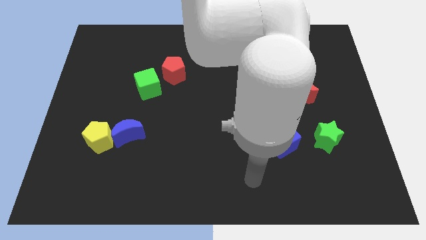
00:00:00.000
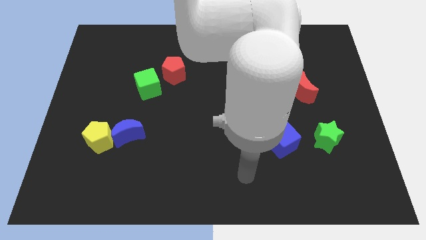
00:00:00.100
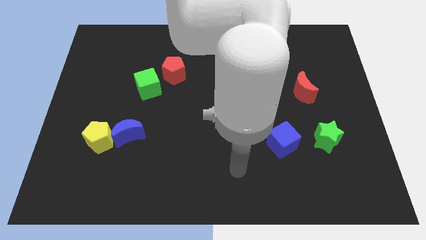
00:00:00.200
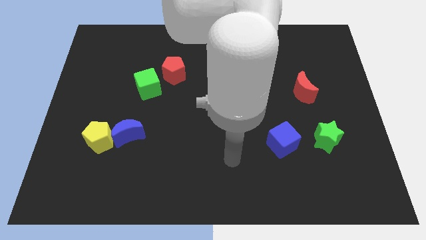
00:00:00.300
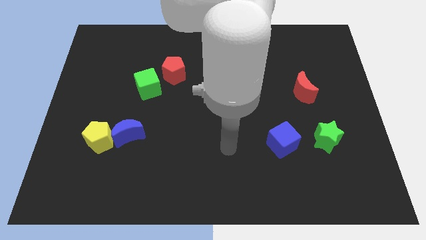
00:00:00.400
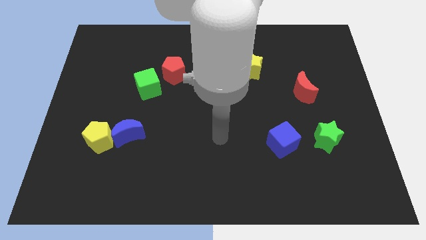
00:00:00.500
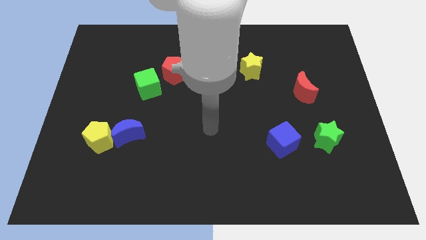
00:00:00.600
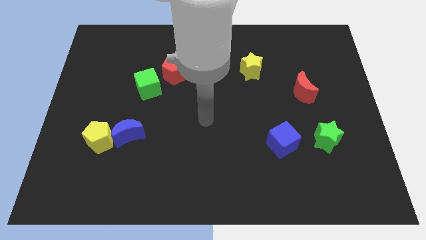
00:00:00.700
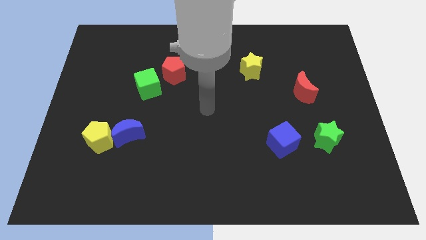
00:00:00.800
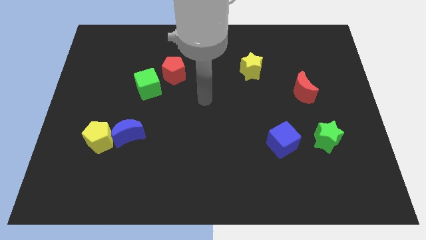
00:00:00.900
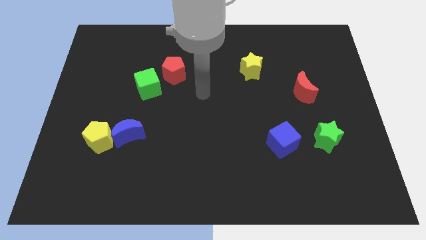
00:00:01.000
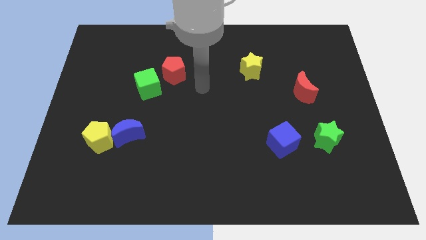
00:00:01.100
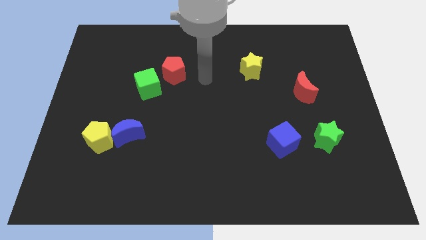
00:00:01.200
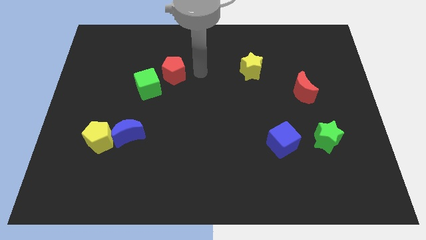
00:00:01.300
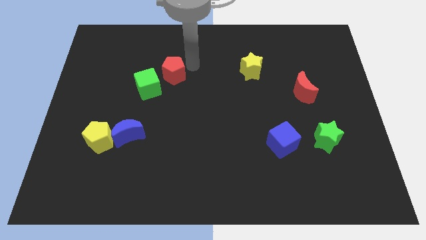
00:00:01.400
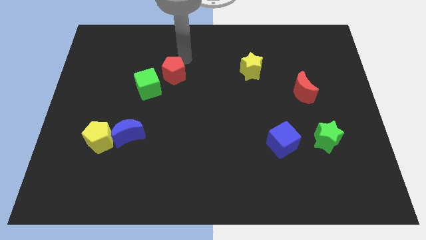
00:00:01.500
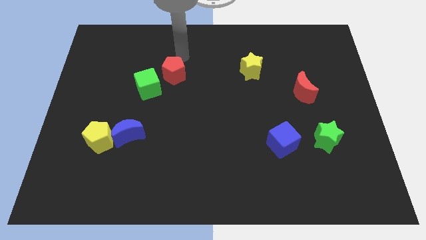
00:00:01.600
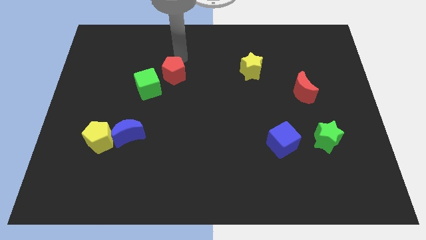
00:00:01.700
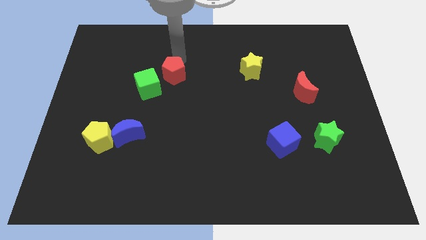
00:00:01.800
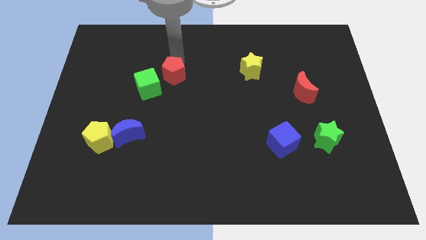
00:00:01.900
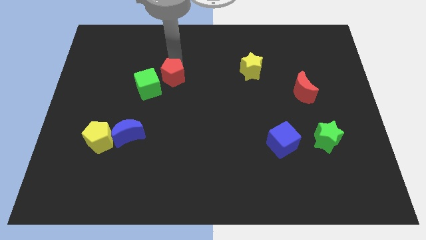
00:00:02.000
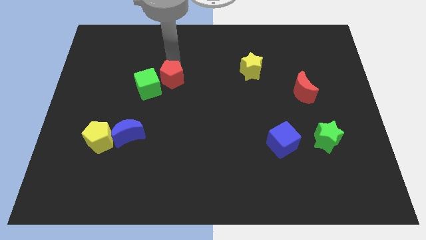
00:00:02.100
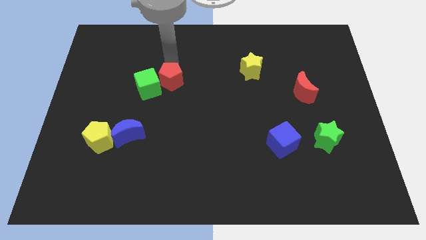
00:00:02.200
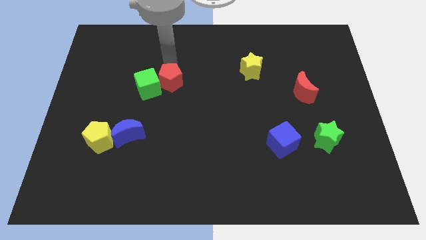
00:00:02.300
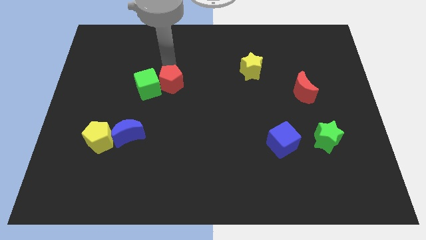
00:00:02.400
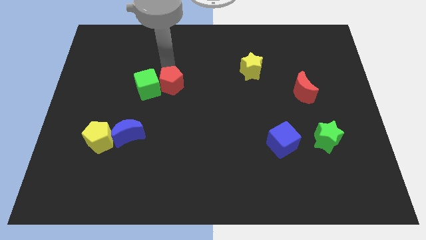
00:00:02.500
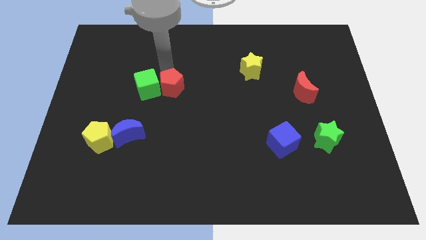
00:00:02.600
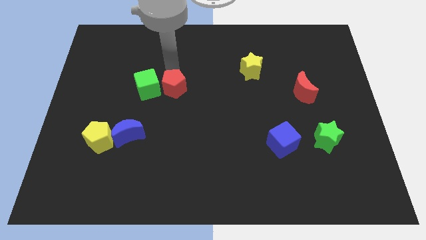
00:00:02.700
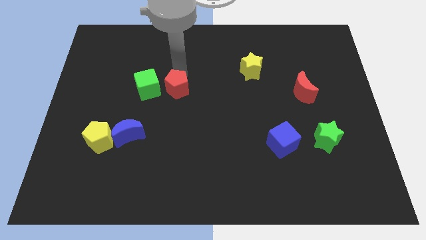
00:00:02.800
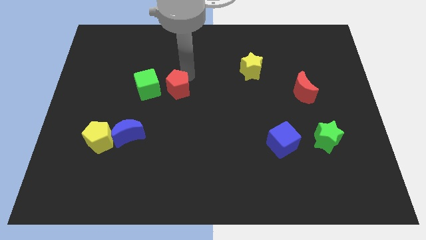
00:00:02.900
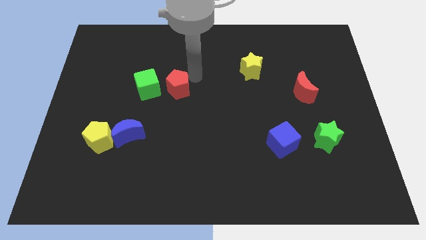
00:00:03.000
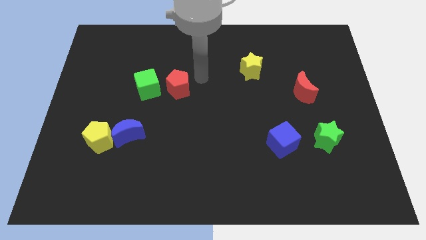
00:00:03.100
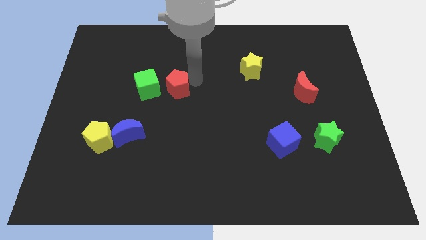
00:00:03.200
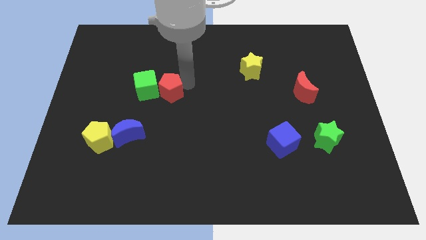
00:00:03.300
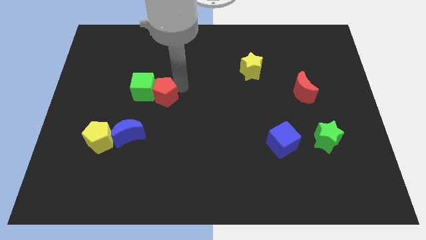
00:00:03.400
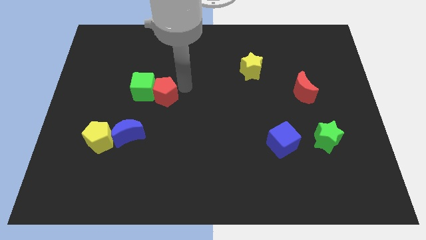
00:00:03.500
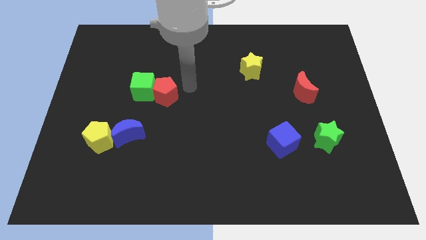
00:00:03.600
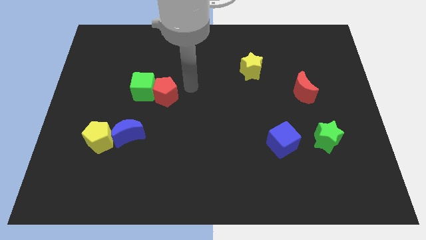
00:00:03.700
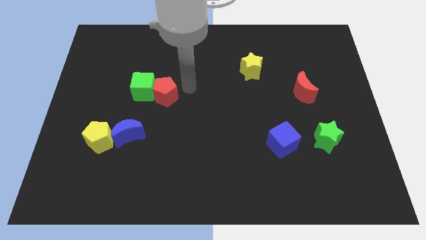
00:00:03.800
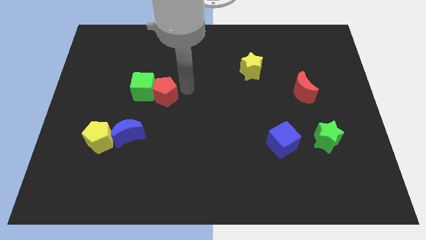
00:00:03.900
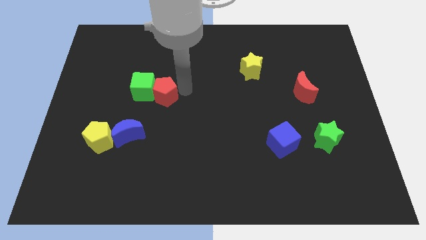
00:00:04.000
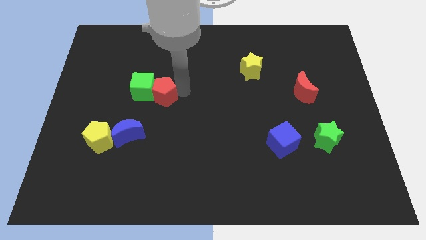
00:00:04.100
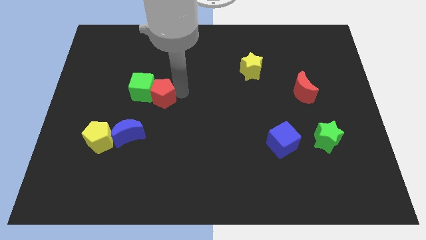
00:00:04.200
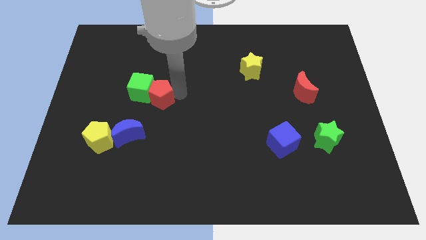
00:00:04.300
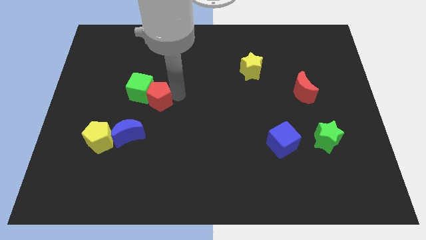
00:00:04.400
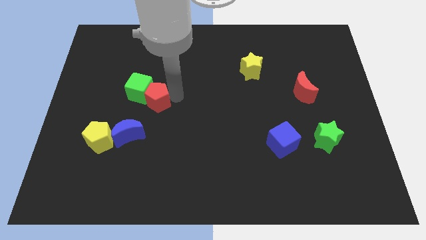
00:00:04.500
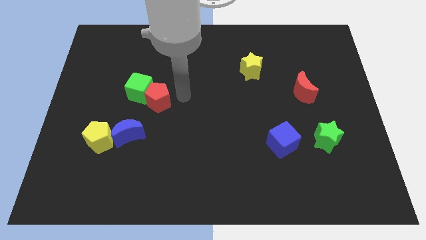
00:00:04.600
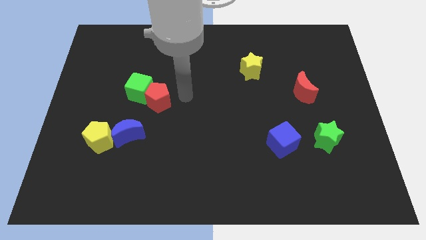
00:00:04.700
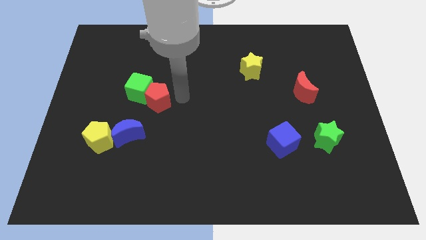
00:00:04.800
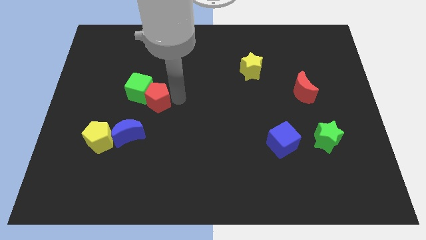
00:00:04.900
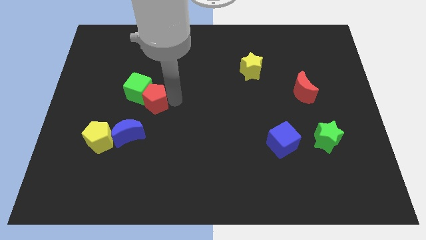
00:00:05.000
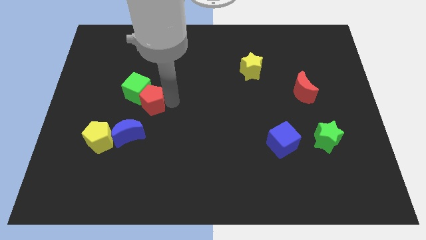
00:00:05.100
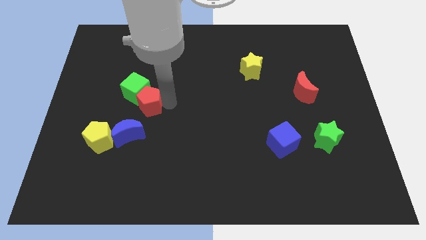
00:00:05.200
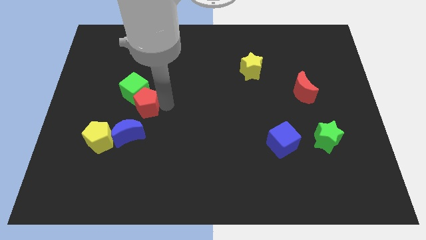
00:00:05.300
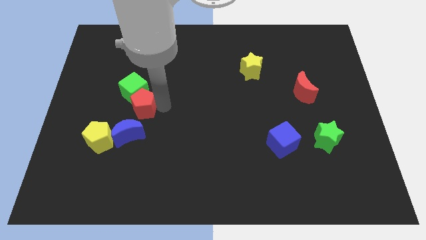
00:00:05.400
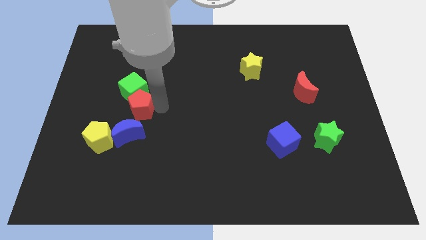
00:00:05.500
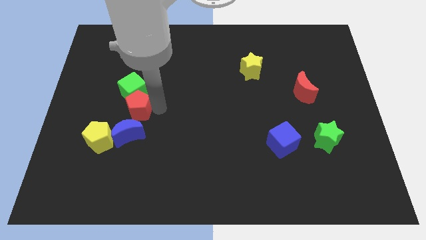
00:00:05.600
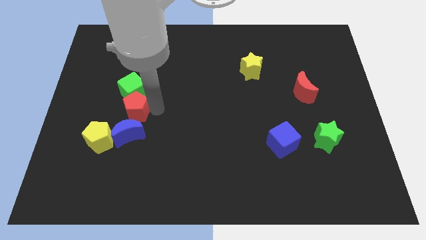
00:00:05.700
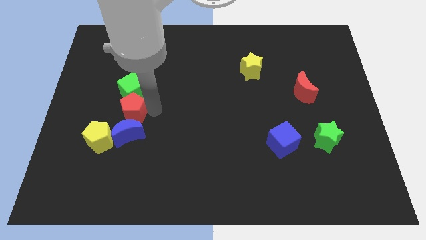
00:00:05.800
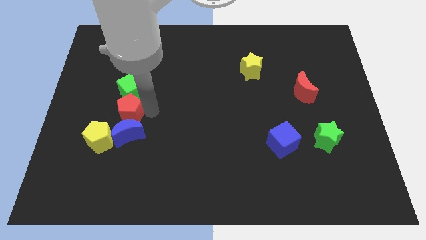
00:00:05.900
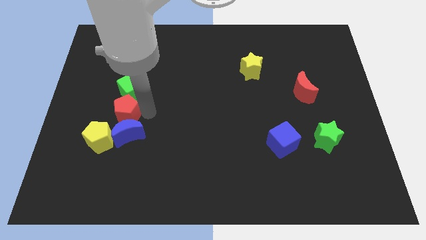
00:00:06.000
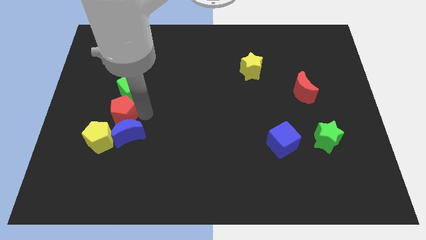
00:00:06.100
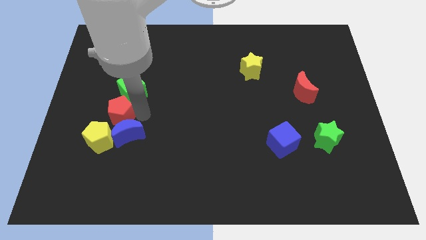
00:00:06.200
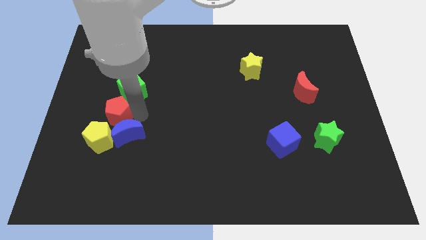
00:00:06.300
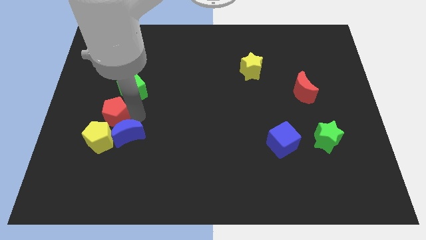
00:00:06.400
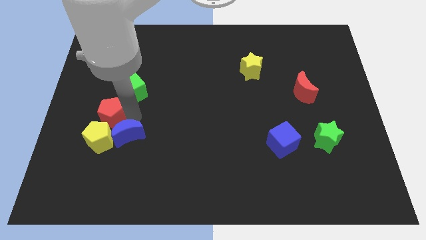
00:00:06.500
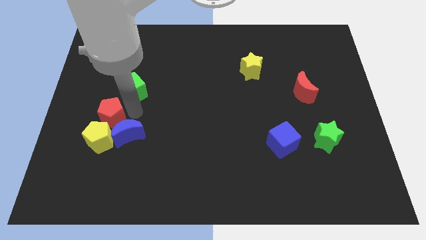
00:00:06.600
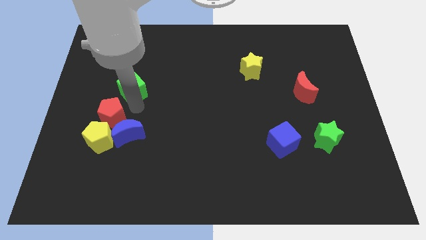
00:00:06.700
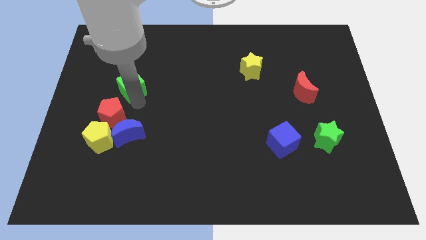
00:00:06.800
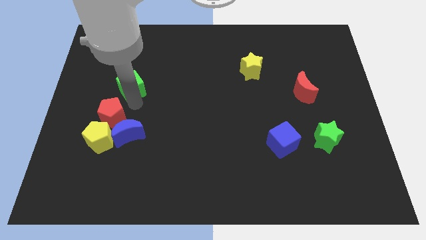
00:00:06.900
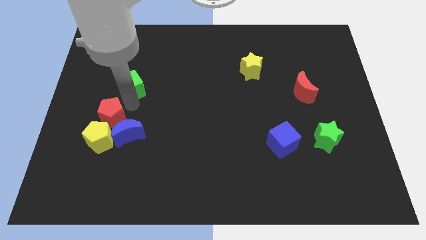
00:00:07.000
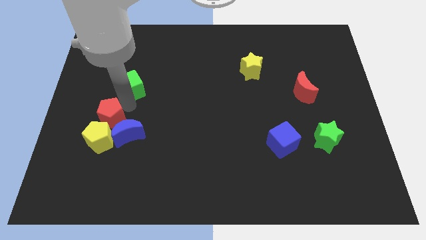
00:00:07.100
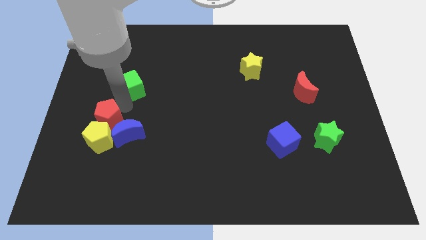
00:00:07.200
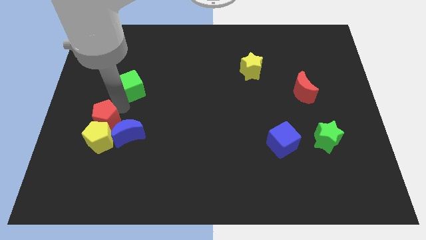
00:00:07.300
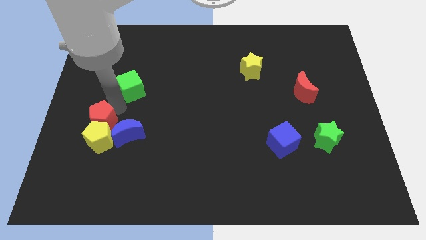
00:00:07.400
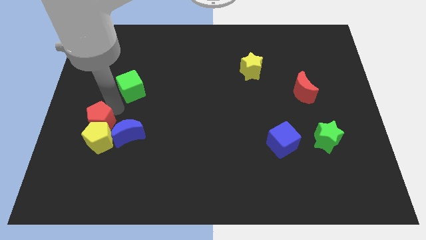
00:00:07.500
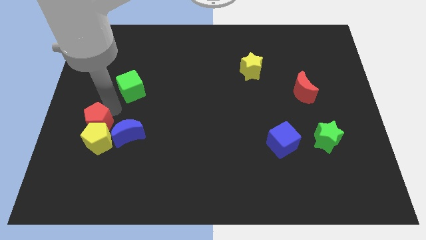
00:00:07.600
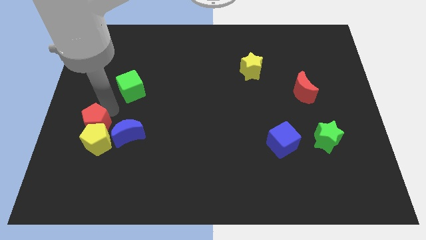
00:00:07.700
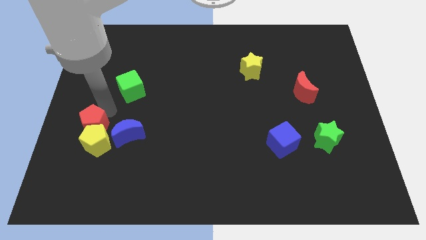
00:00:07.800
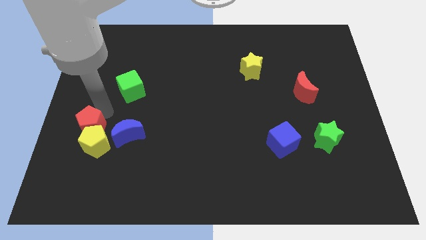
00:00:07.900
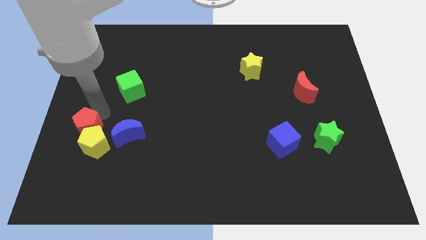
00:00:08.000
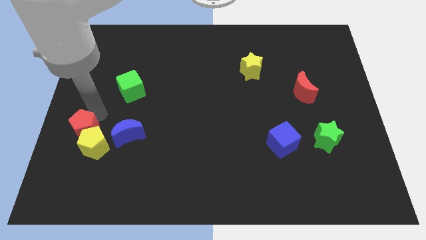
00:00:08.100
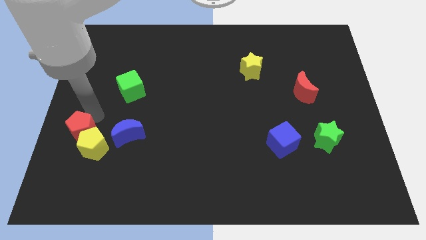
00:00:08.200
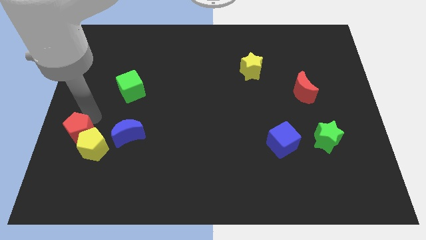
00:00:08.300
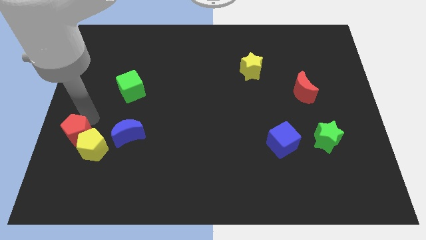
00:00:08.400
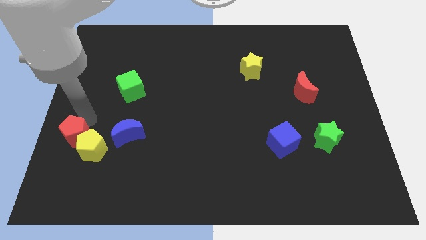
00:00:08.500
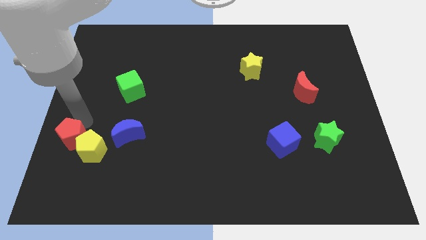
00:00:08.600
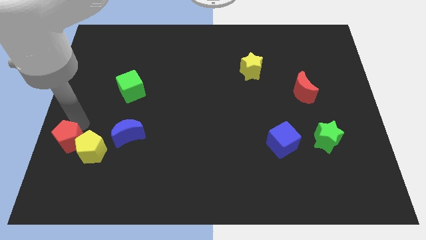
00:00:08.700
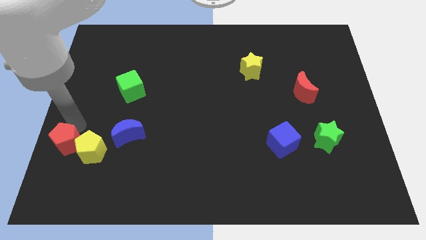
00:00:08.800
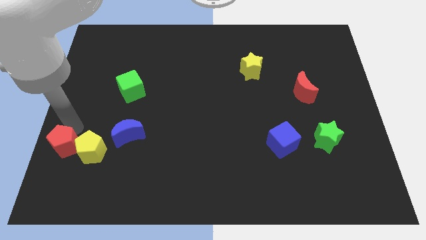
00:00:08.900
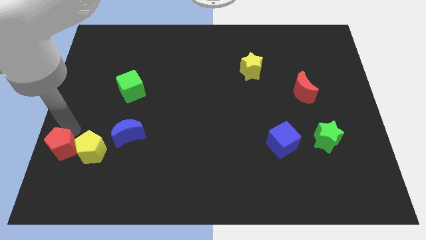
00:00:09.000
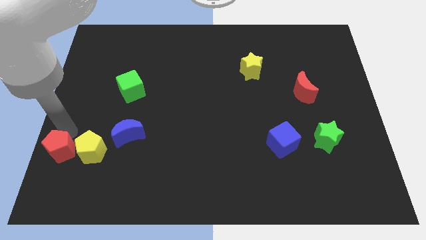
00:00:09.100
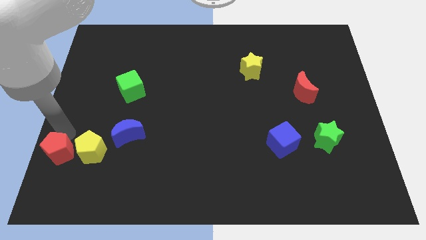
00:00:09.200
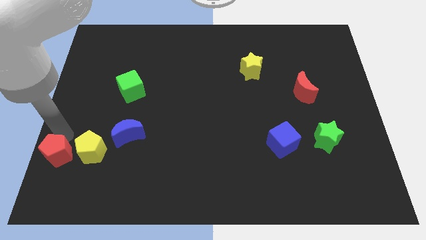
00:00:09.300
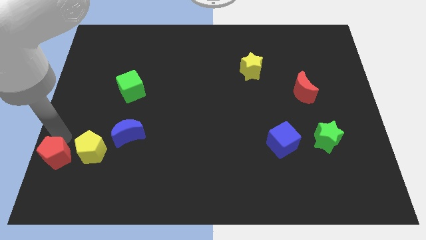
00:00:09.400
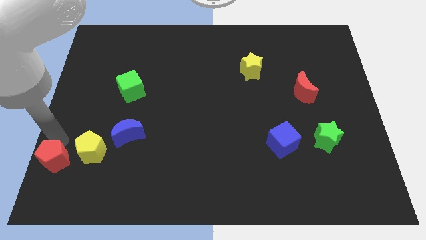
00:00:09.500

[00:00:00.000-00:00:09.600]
put the red pentagon to the lower left corner
